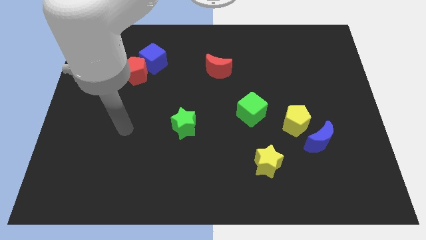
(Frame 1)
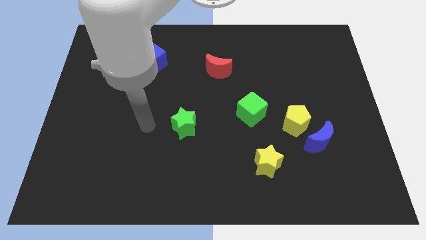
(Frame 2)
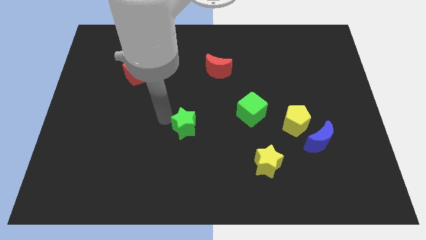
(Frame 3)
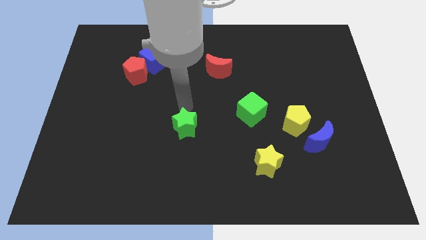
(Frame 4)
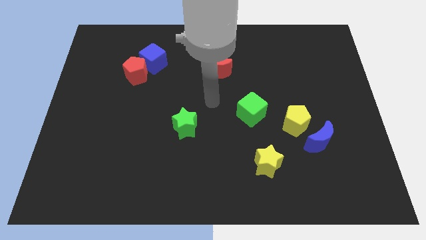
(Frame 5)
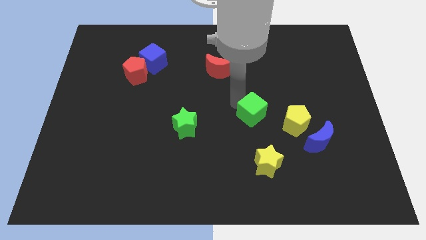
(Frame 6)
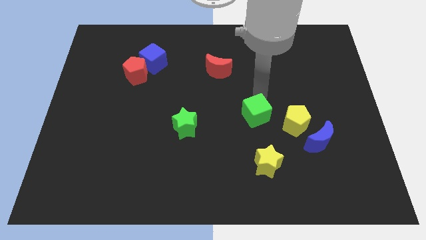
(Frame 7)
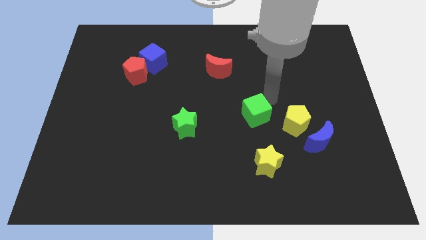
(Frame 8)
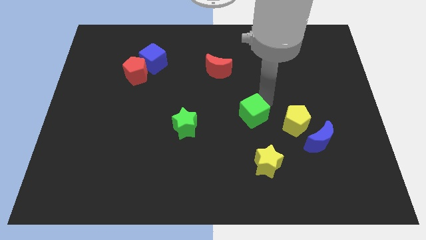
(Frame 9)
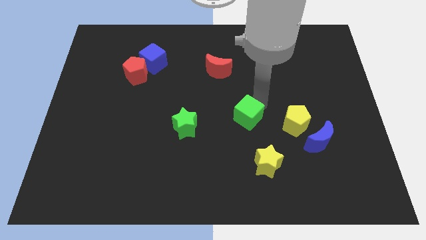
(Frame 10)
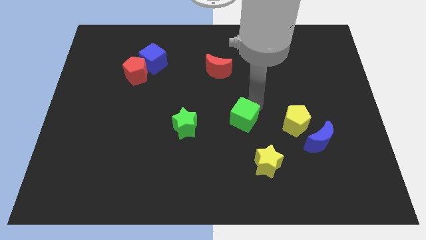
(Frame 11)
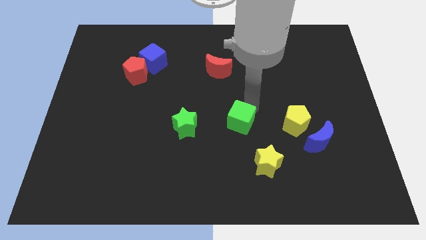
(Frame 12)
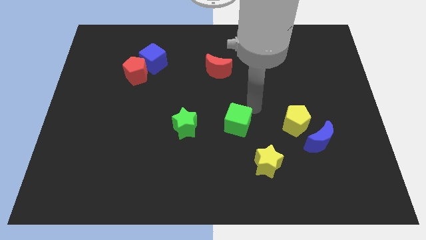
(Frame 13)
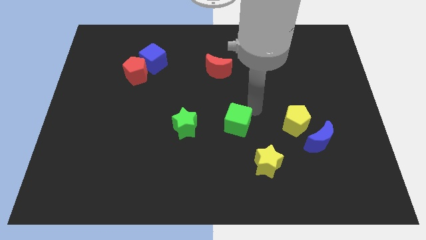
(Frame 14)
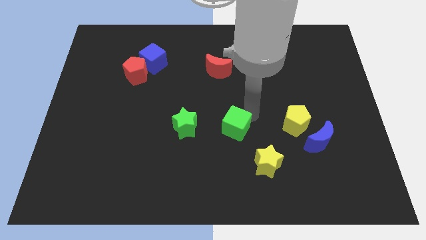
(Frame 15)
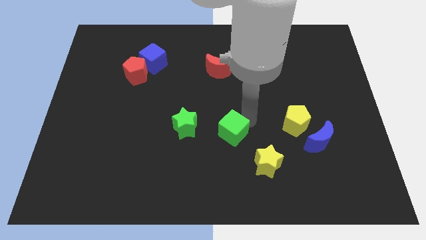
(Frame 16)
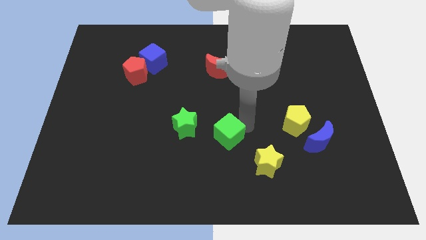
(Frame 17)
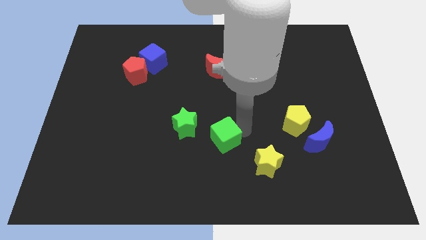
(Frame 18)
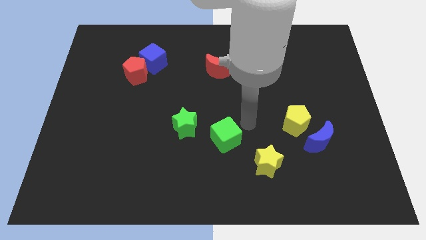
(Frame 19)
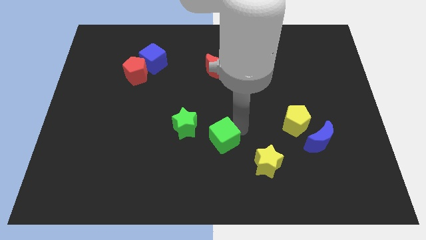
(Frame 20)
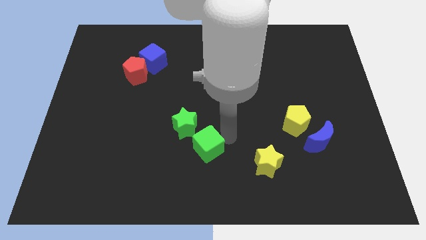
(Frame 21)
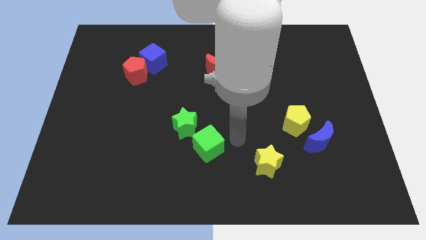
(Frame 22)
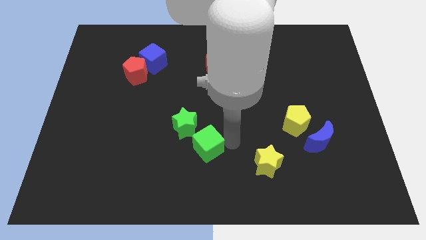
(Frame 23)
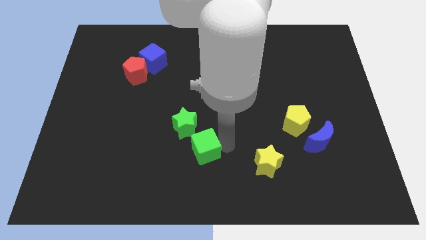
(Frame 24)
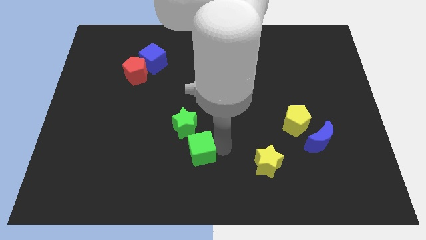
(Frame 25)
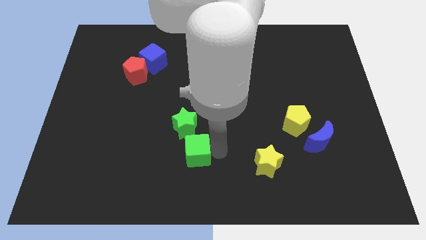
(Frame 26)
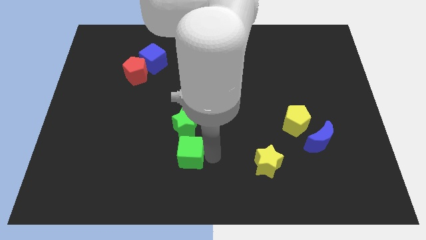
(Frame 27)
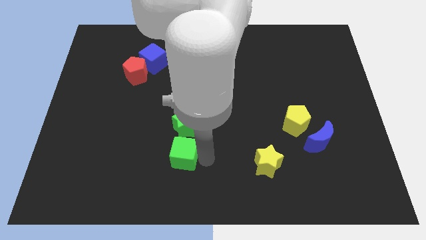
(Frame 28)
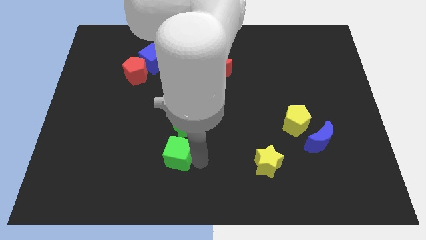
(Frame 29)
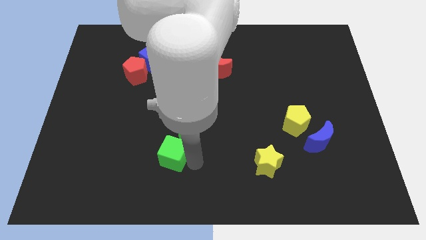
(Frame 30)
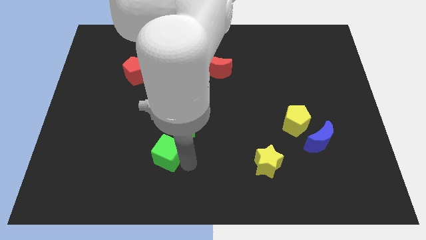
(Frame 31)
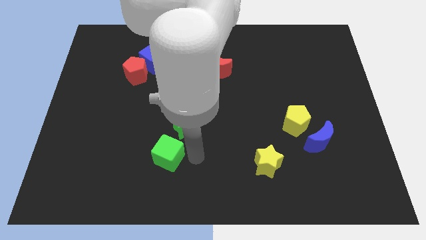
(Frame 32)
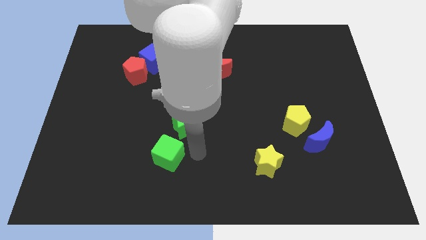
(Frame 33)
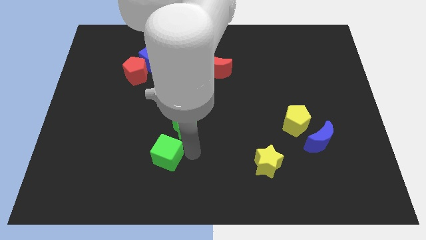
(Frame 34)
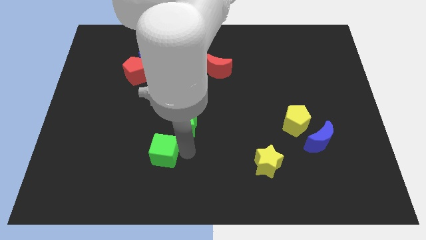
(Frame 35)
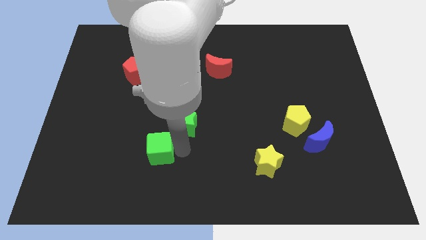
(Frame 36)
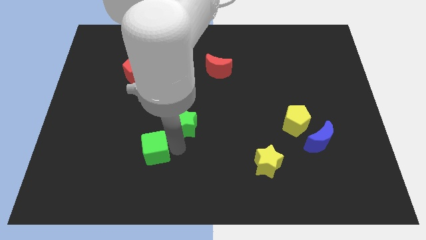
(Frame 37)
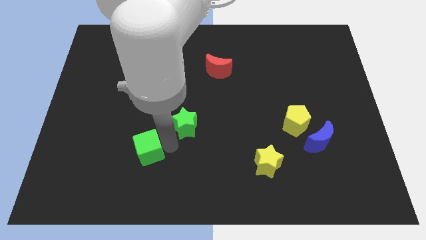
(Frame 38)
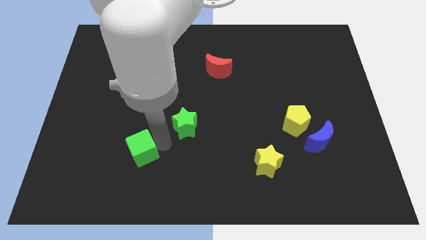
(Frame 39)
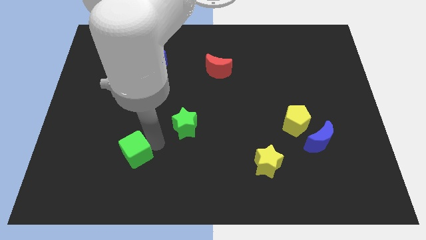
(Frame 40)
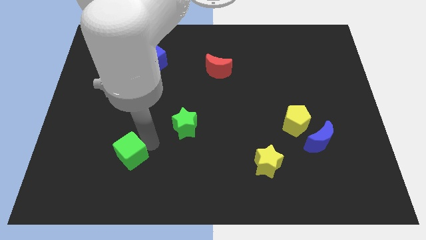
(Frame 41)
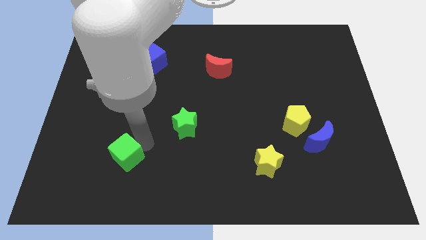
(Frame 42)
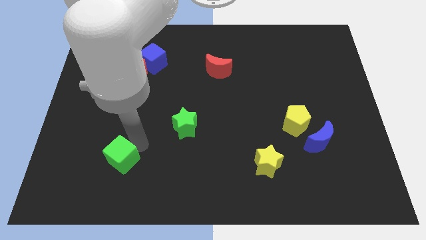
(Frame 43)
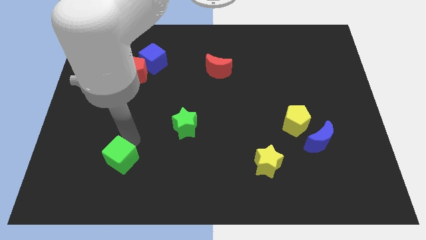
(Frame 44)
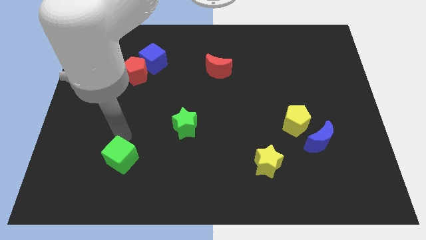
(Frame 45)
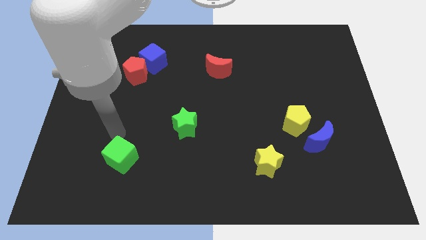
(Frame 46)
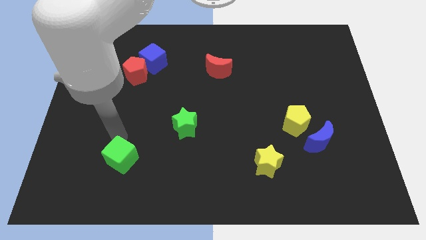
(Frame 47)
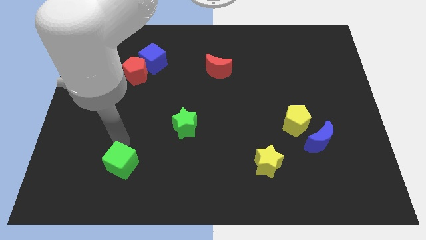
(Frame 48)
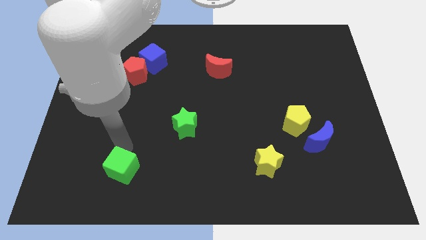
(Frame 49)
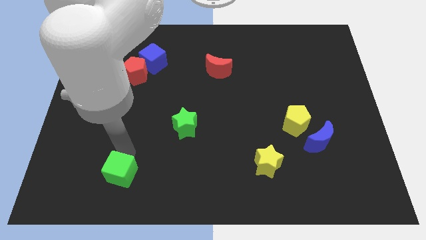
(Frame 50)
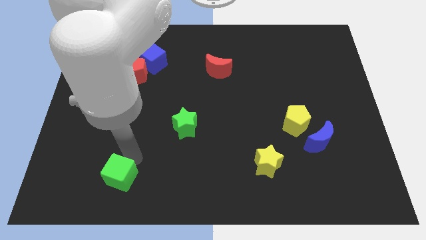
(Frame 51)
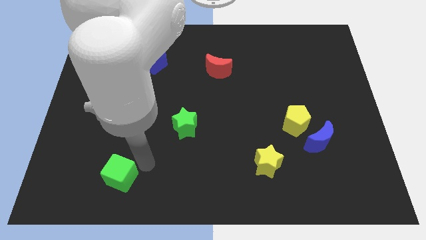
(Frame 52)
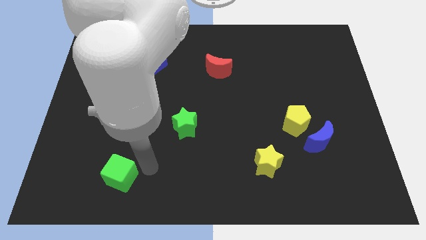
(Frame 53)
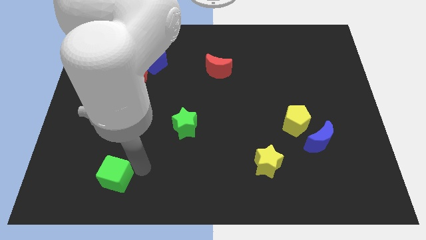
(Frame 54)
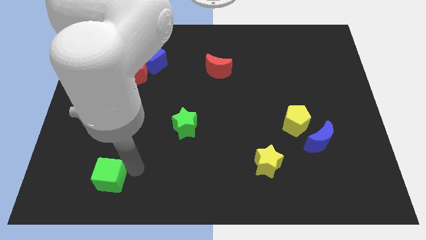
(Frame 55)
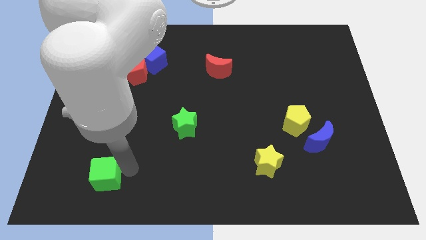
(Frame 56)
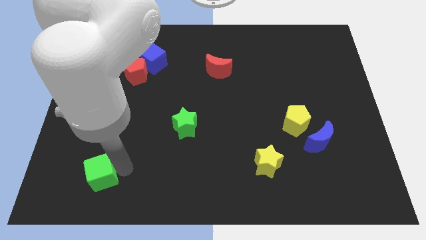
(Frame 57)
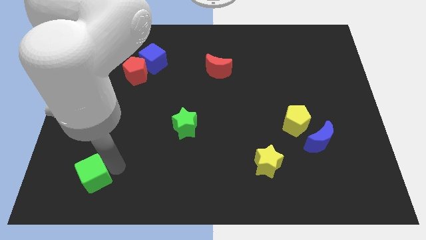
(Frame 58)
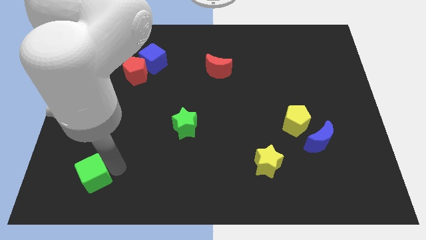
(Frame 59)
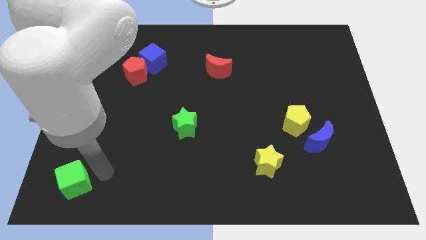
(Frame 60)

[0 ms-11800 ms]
slide the green cube to the bottom left of the board

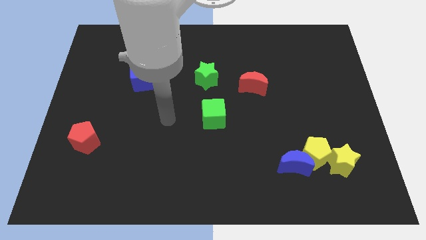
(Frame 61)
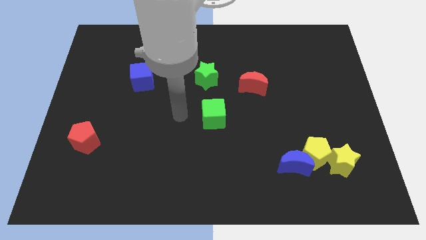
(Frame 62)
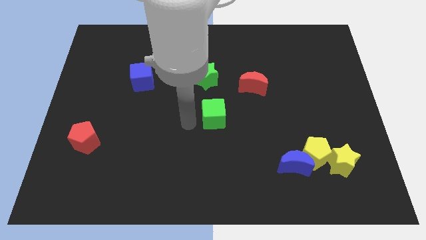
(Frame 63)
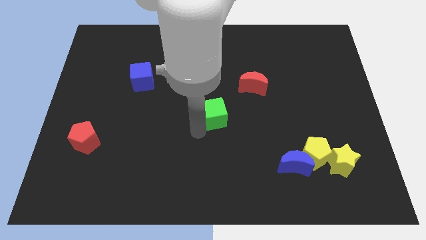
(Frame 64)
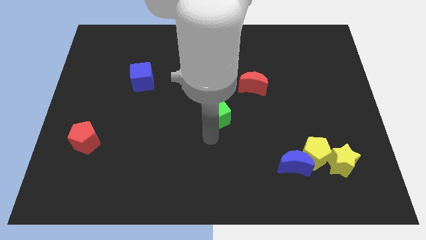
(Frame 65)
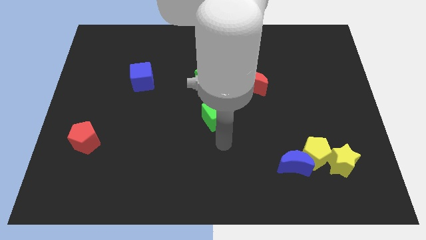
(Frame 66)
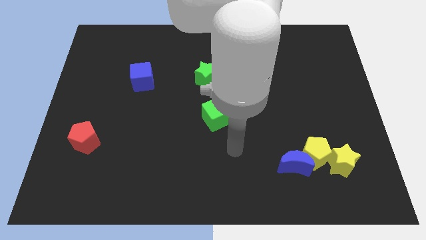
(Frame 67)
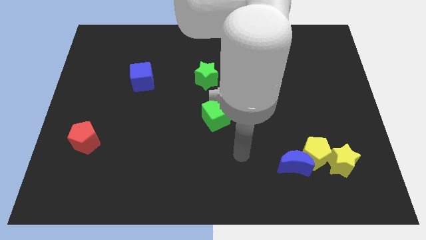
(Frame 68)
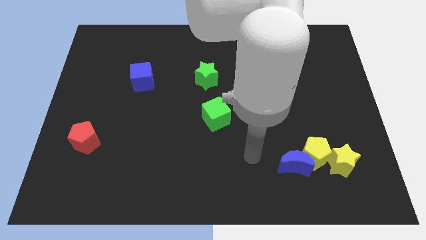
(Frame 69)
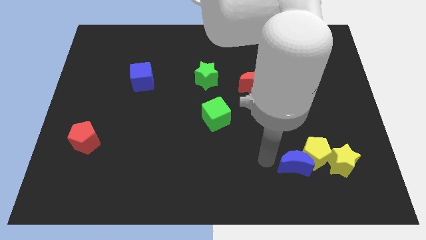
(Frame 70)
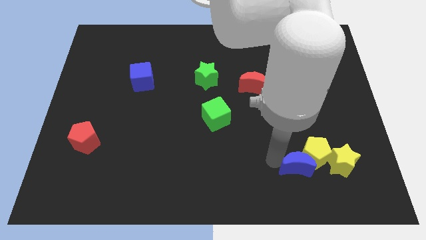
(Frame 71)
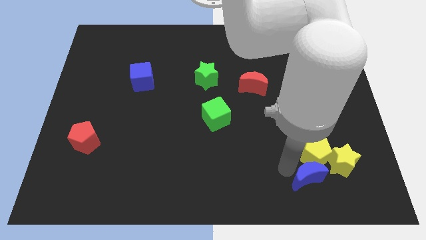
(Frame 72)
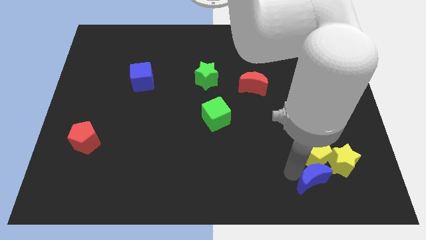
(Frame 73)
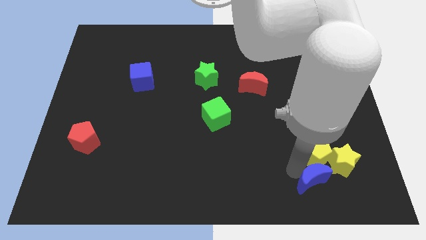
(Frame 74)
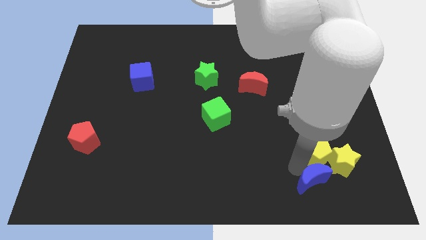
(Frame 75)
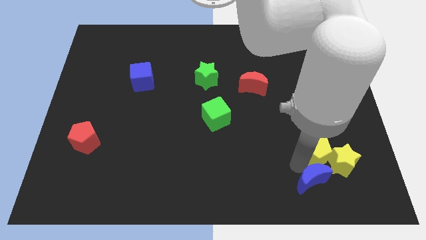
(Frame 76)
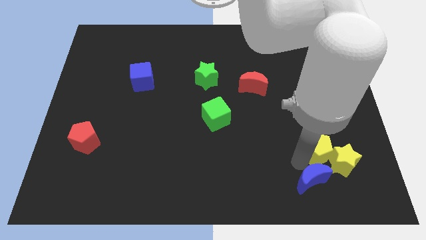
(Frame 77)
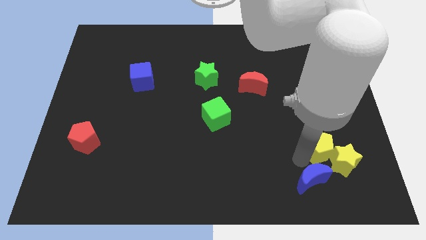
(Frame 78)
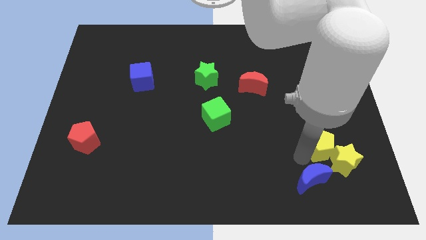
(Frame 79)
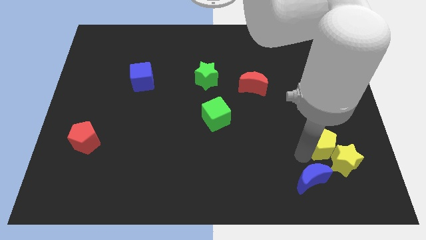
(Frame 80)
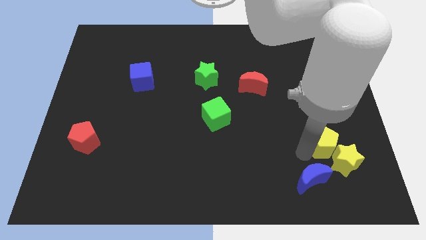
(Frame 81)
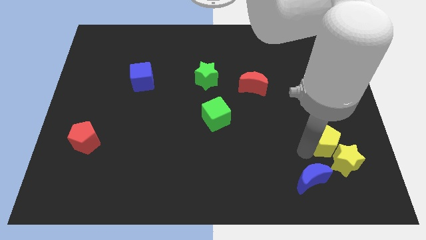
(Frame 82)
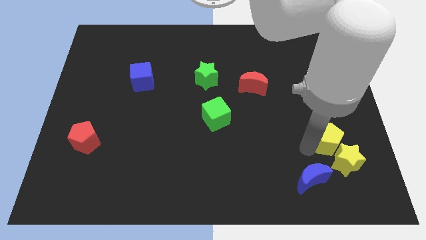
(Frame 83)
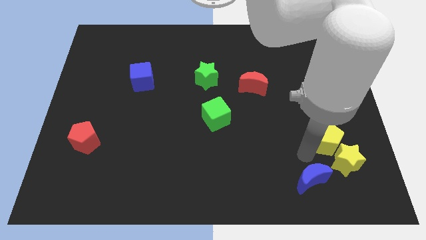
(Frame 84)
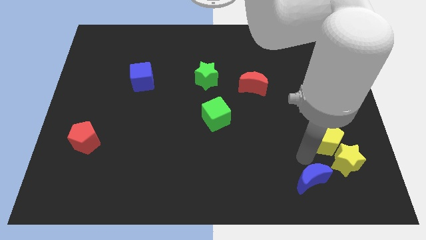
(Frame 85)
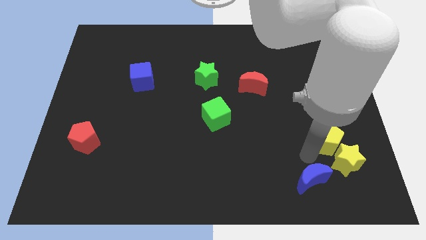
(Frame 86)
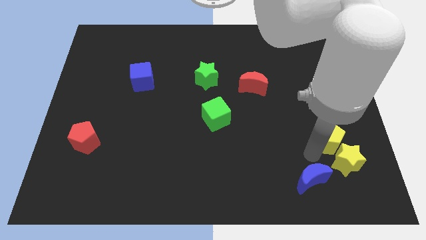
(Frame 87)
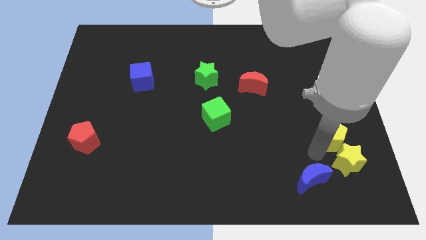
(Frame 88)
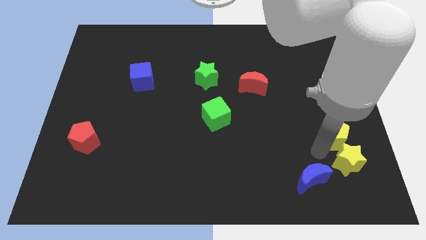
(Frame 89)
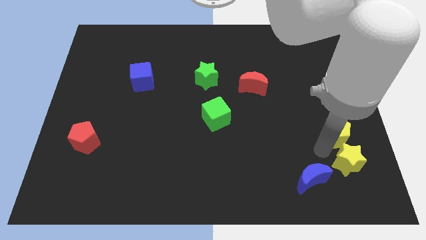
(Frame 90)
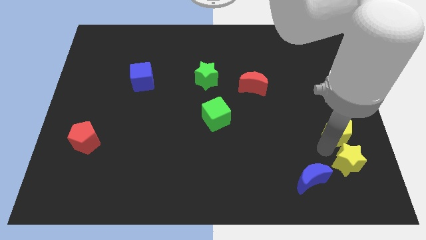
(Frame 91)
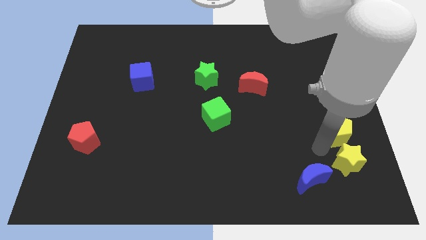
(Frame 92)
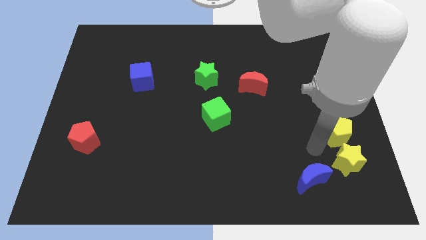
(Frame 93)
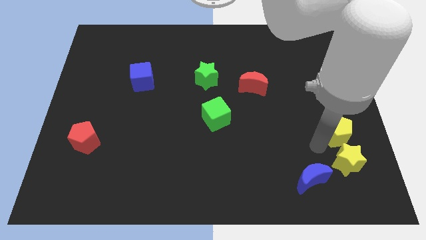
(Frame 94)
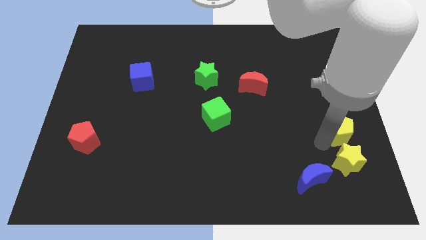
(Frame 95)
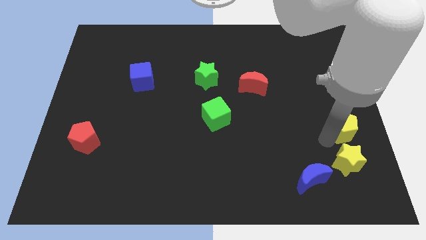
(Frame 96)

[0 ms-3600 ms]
put the yellow pentagon to the center right
